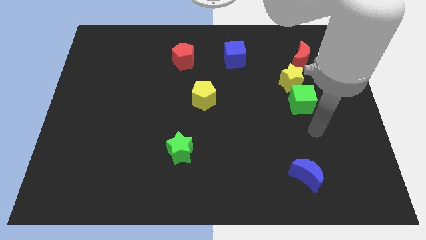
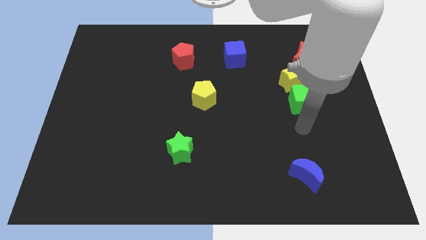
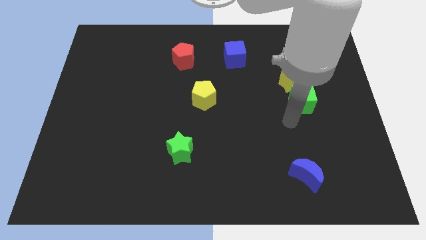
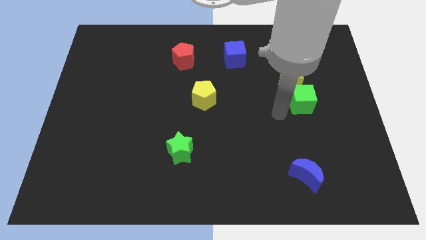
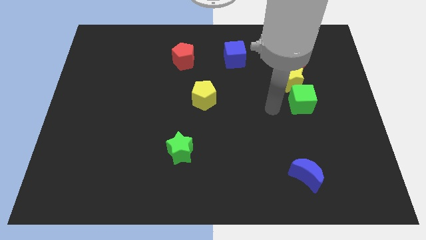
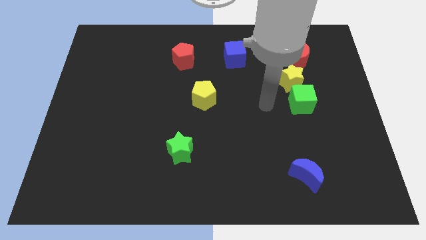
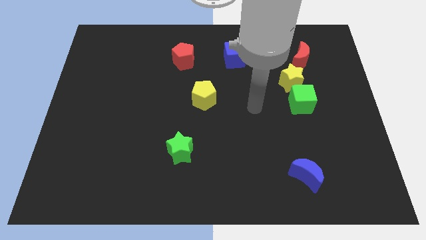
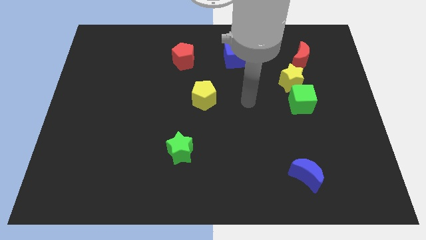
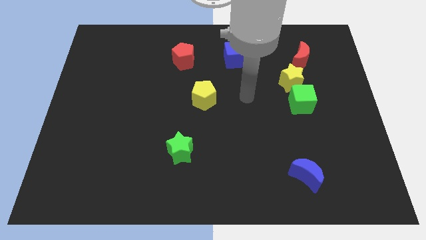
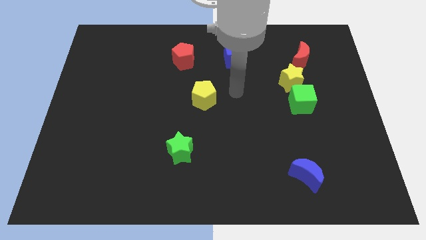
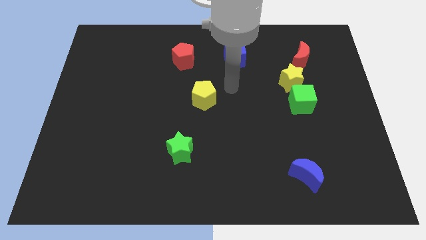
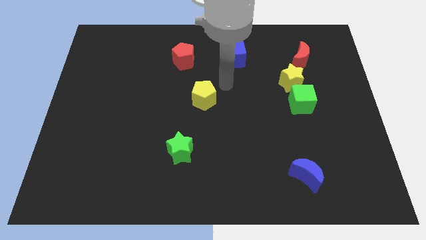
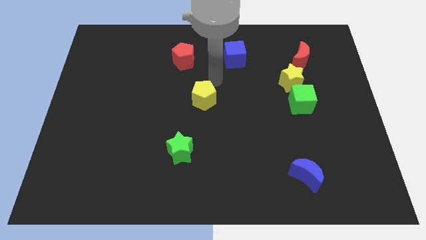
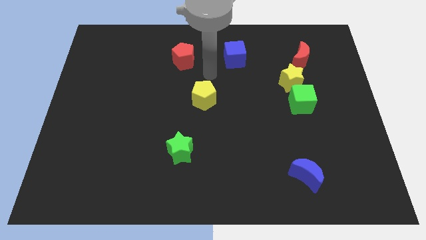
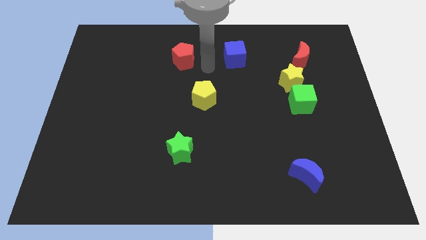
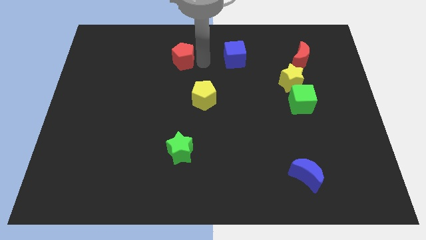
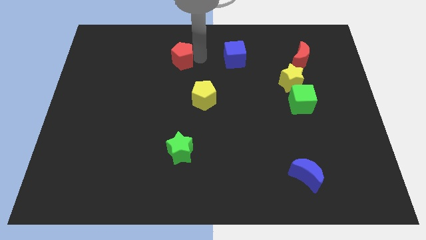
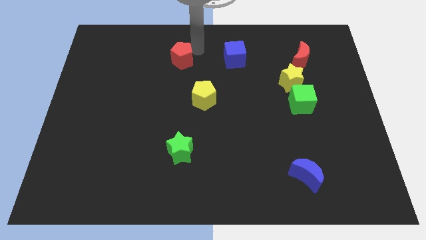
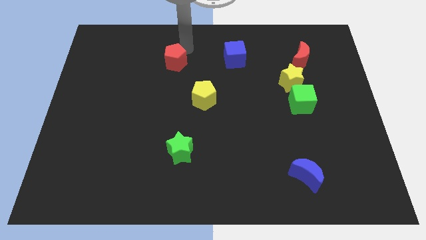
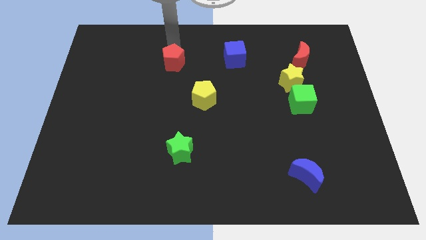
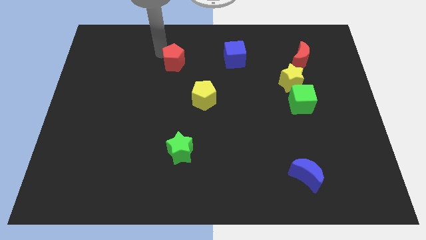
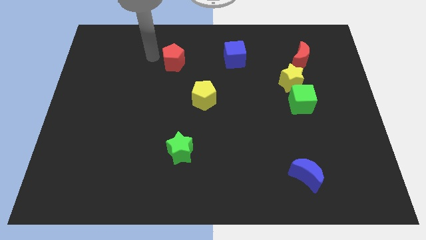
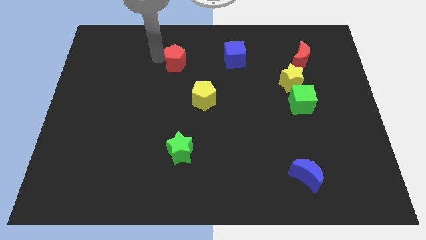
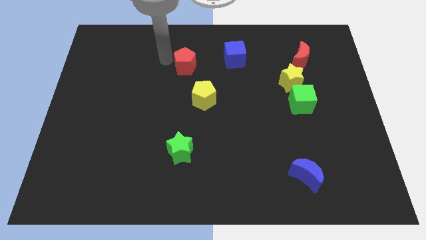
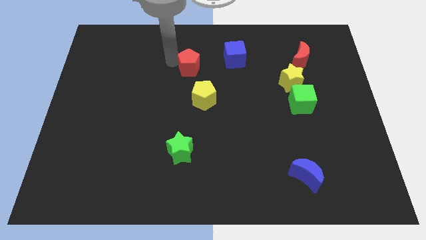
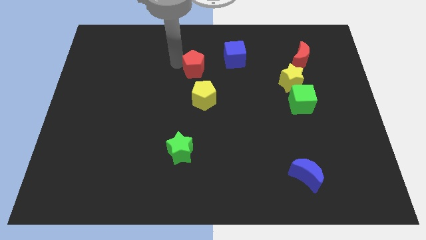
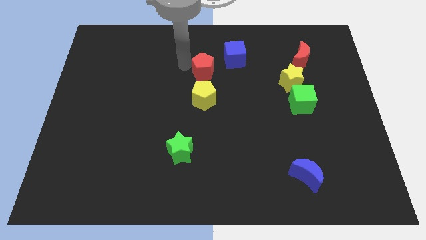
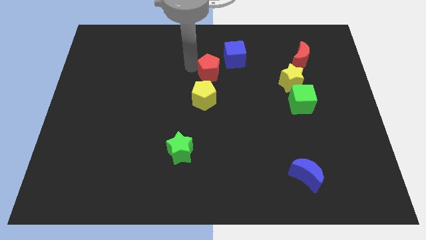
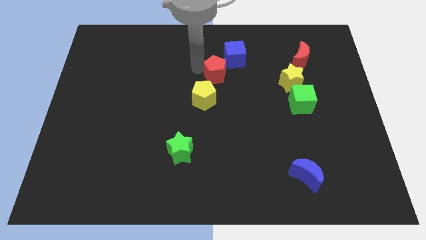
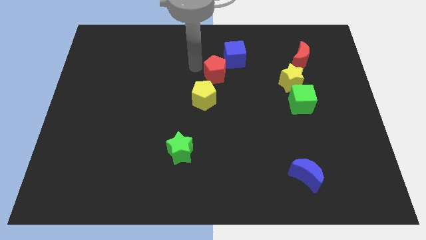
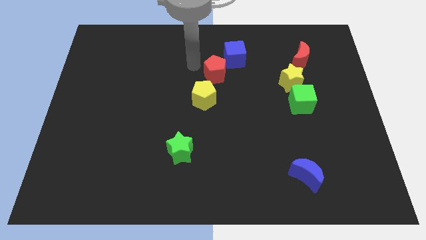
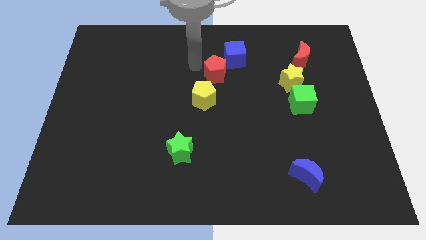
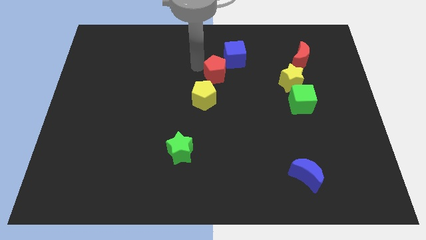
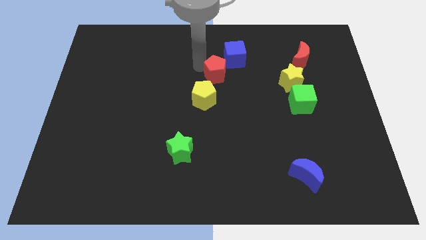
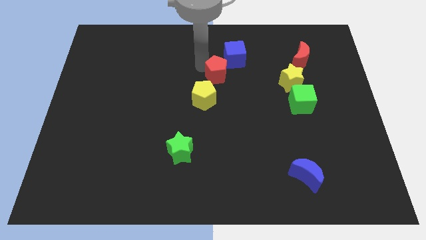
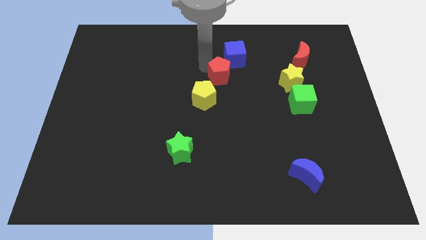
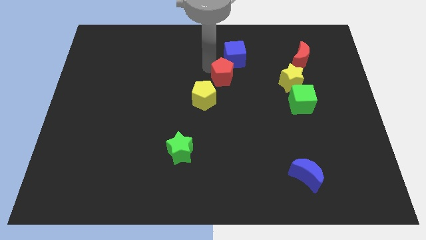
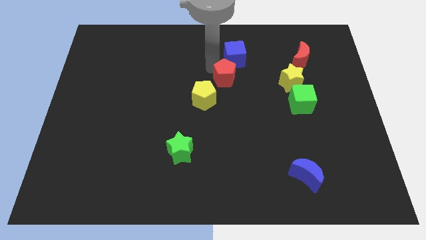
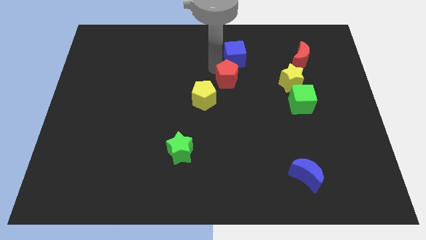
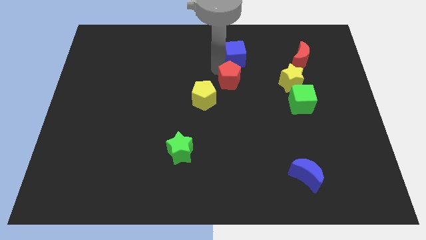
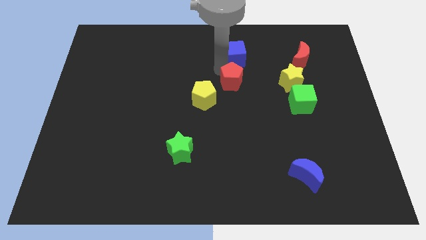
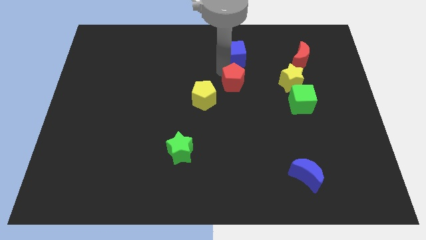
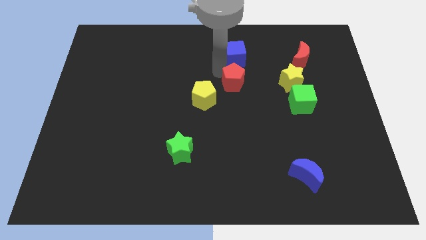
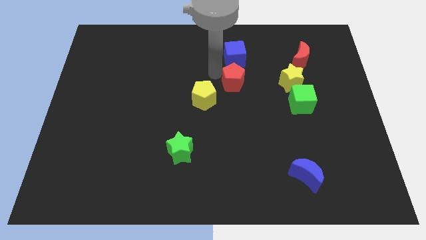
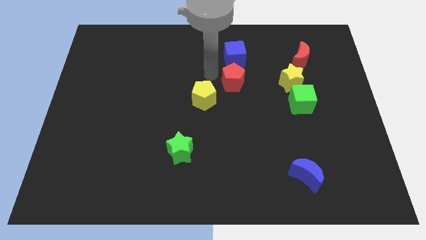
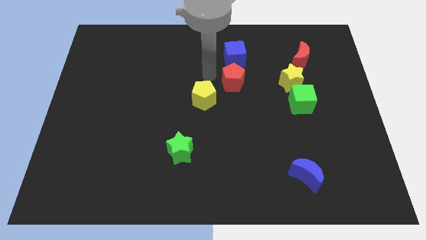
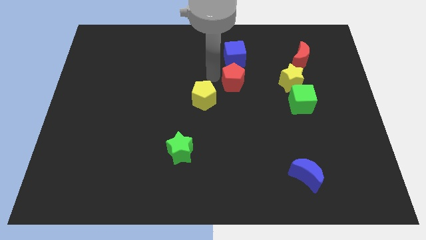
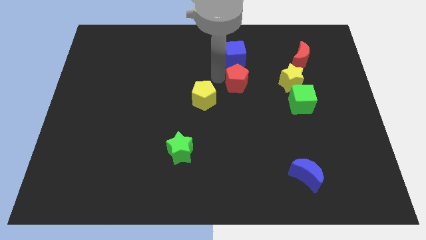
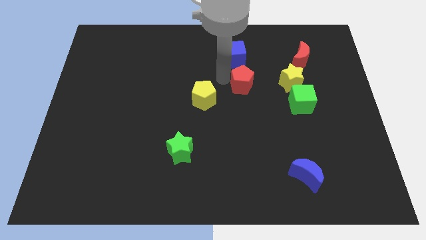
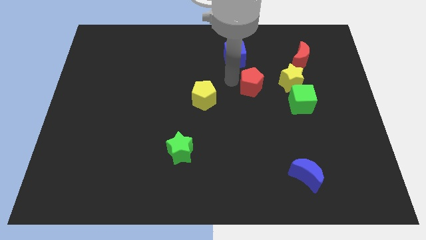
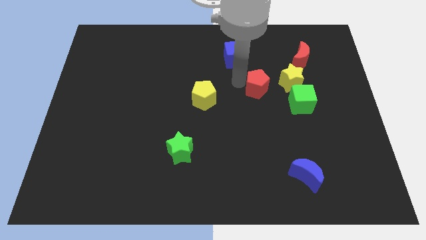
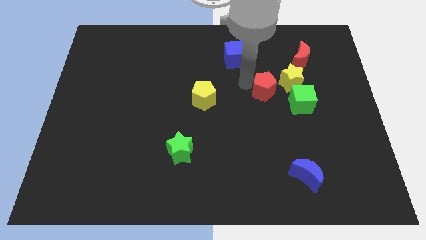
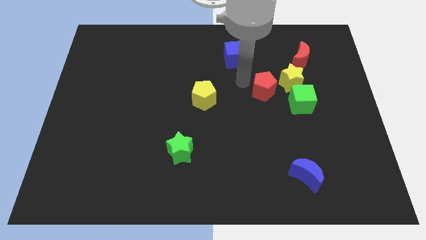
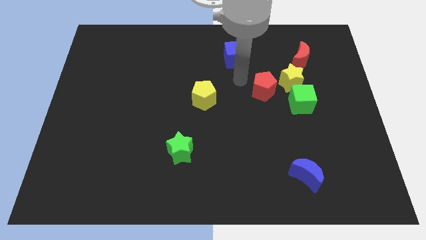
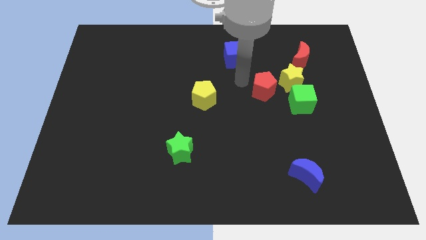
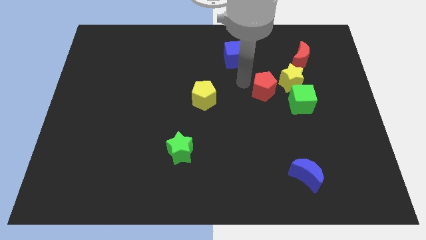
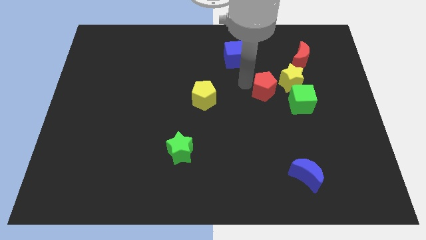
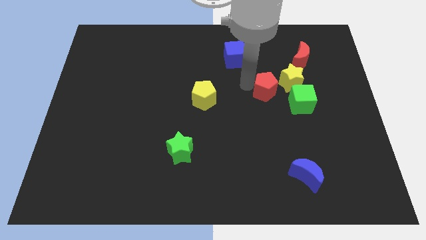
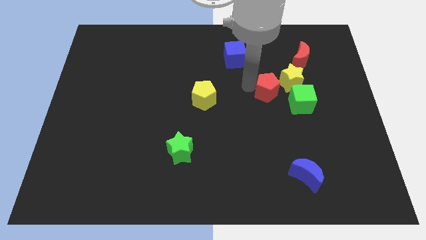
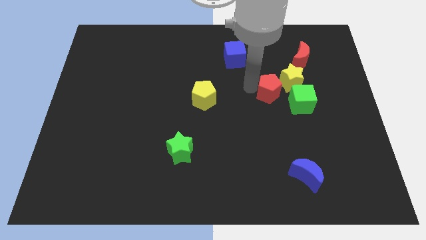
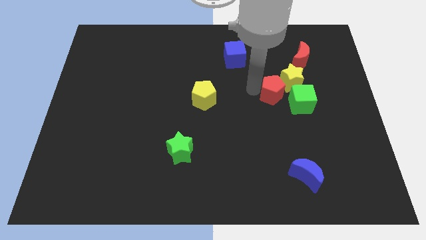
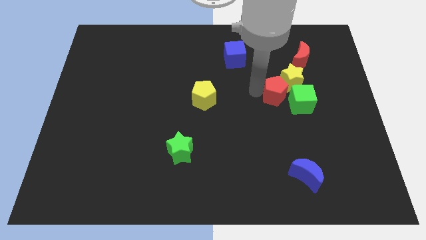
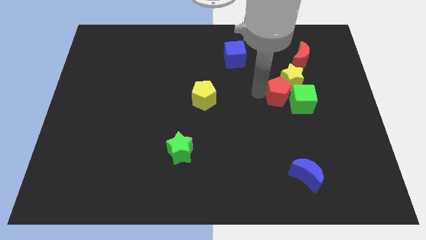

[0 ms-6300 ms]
move the red pentagon towards the green cube

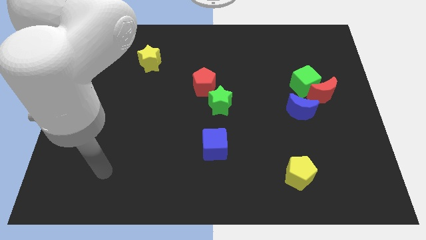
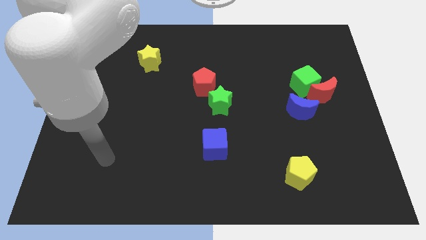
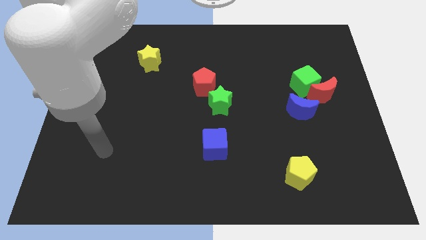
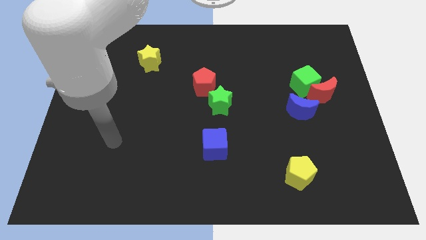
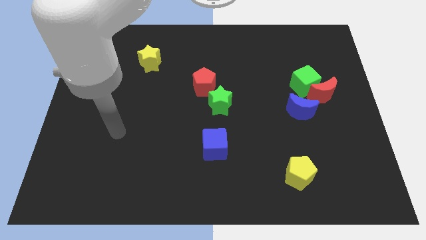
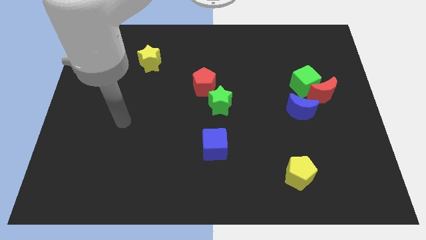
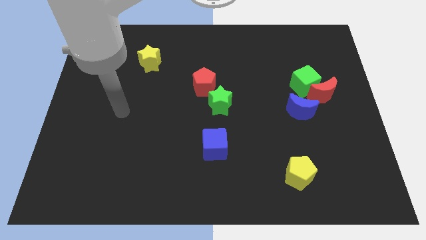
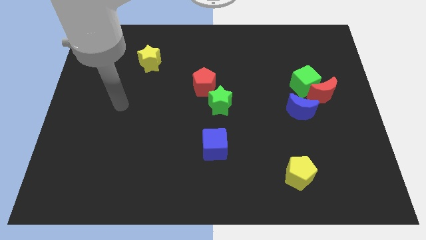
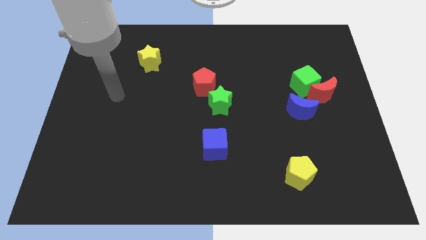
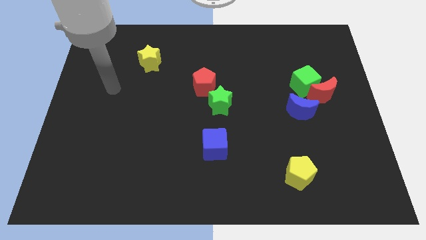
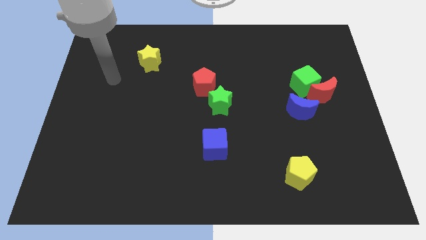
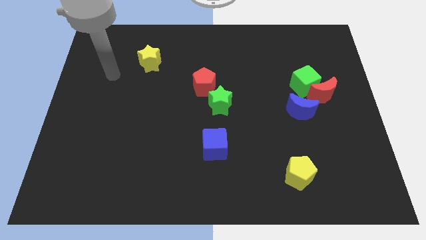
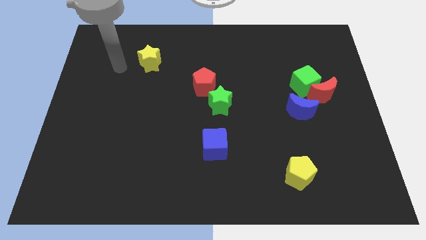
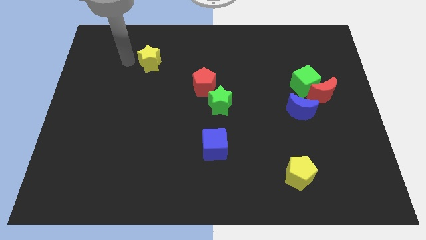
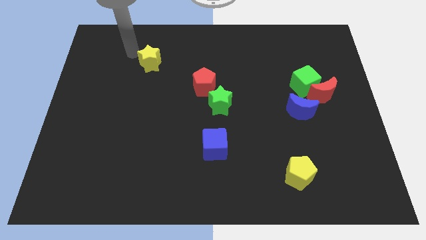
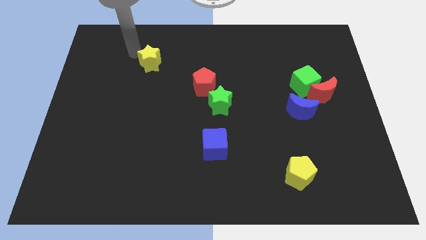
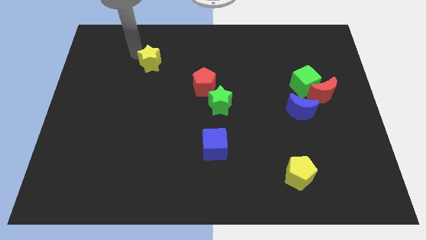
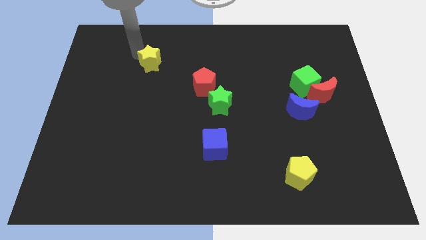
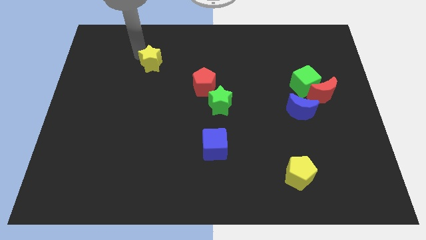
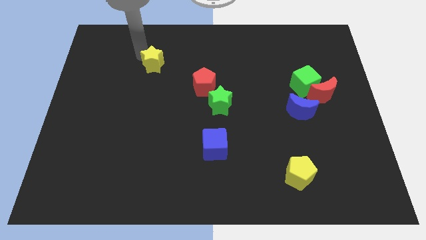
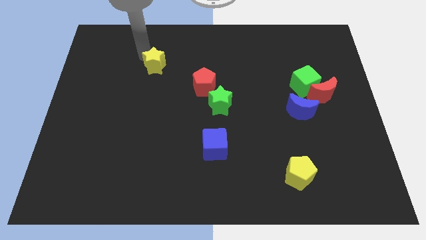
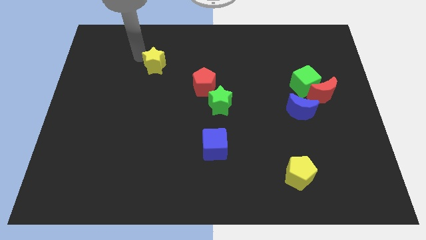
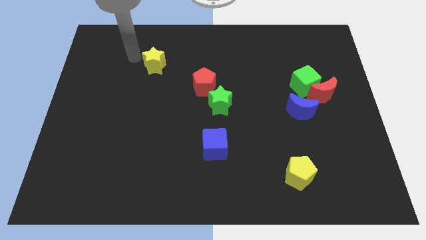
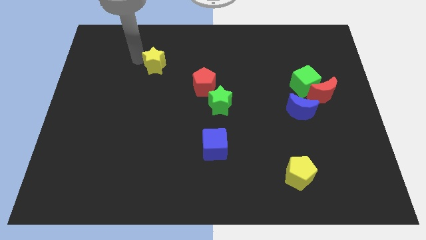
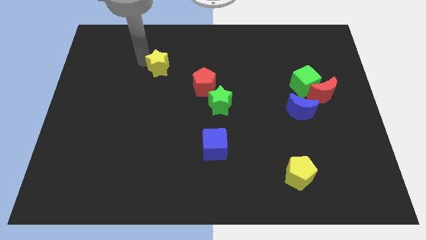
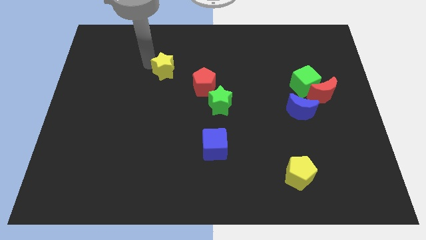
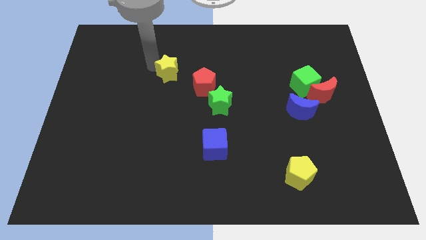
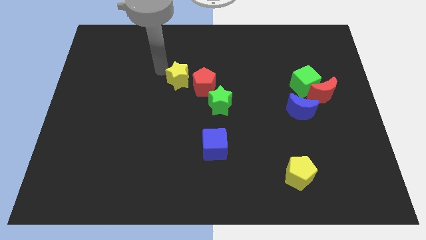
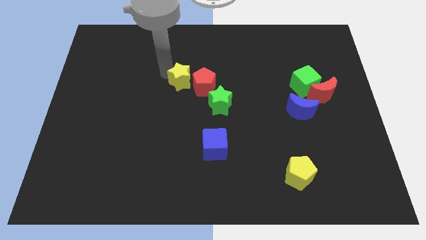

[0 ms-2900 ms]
slide the yellow star towards the red pentagon
